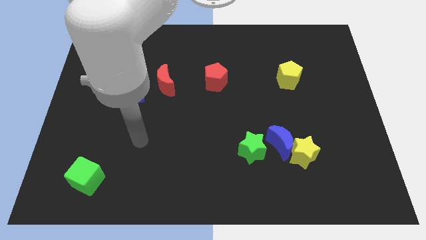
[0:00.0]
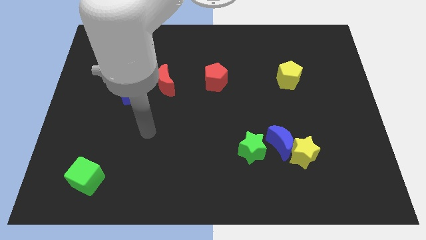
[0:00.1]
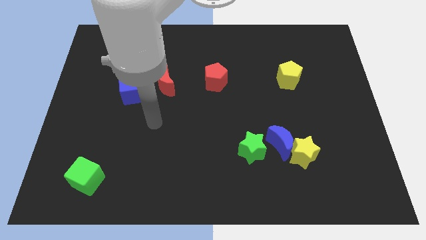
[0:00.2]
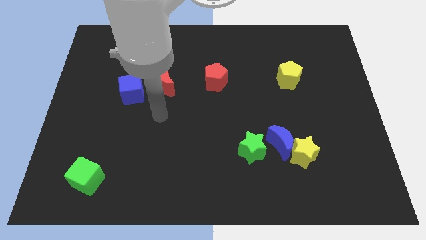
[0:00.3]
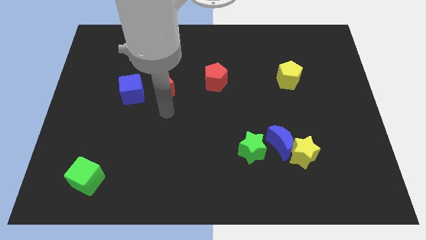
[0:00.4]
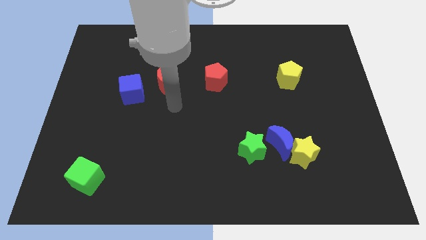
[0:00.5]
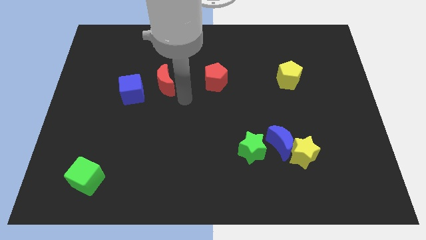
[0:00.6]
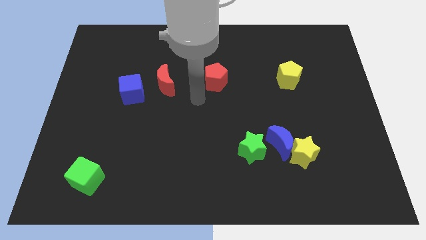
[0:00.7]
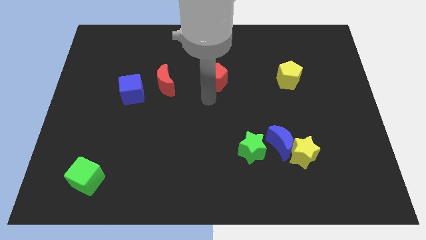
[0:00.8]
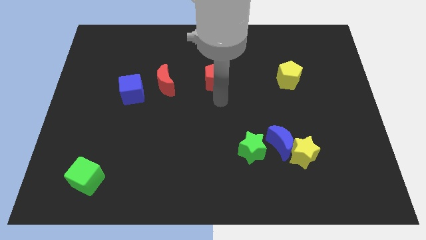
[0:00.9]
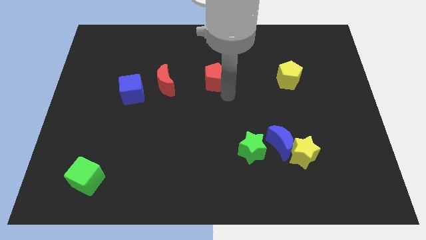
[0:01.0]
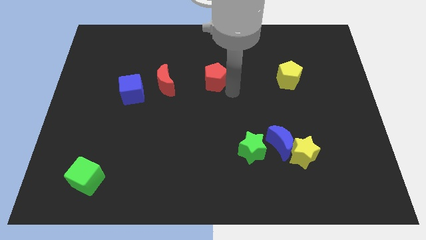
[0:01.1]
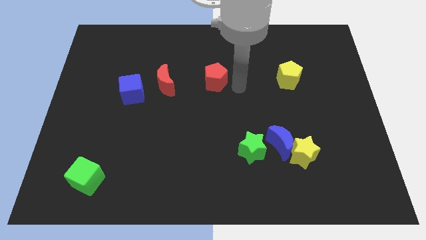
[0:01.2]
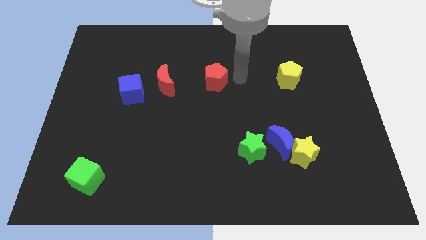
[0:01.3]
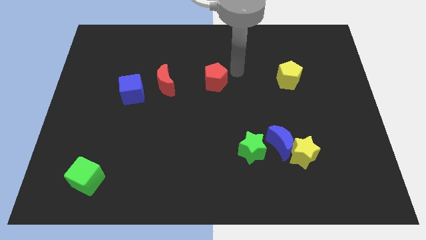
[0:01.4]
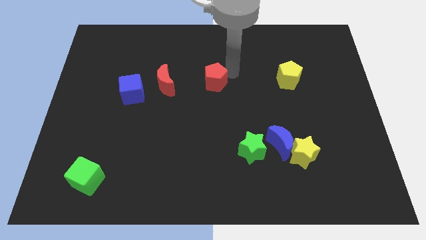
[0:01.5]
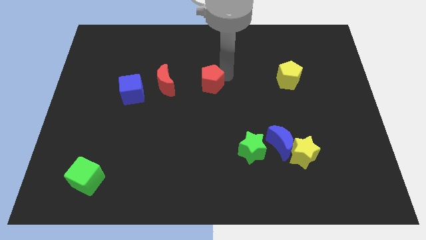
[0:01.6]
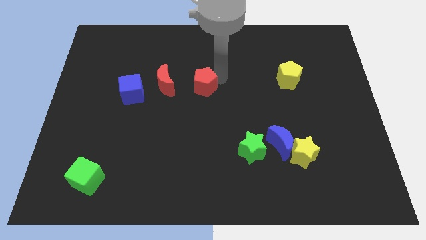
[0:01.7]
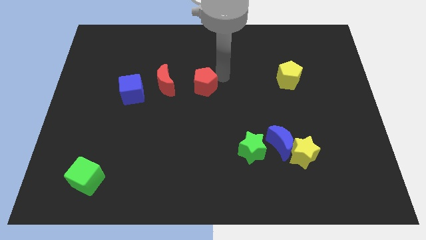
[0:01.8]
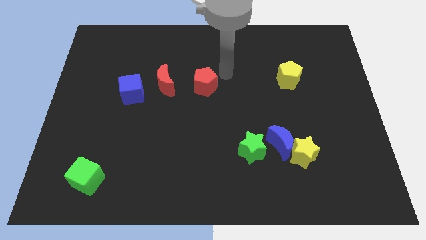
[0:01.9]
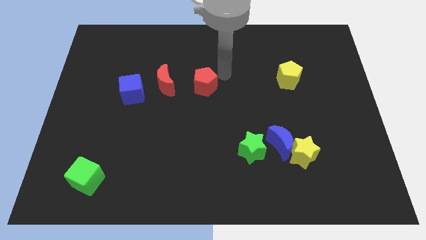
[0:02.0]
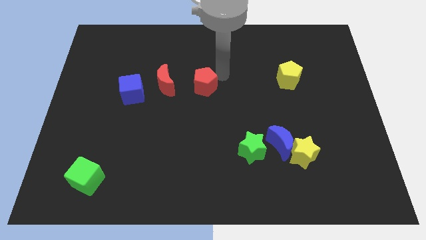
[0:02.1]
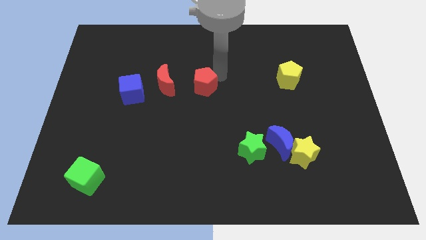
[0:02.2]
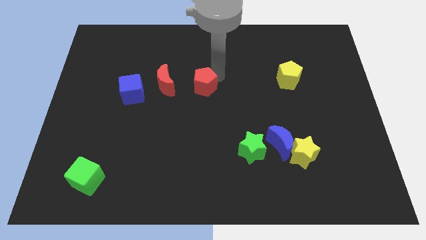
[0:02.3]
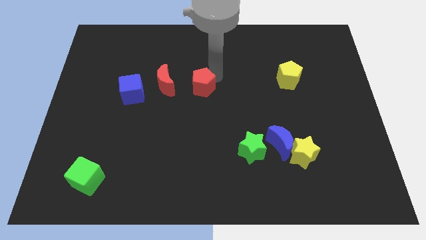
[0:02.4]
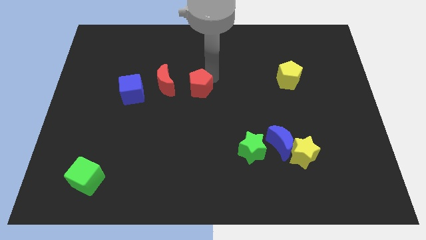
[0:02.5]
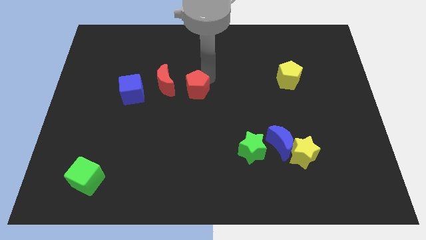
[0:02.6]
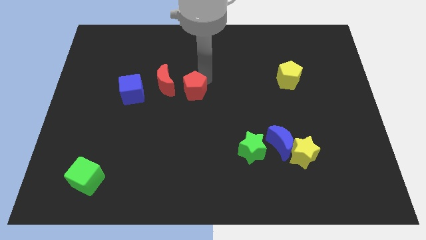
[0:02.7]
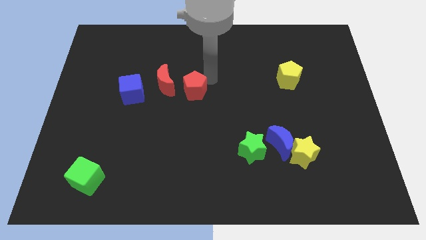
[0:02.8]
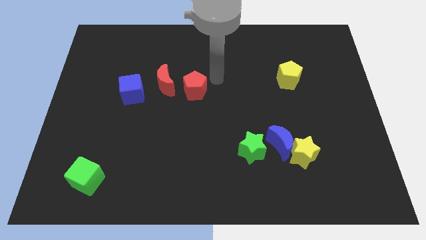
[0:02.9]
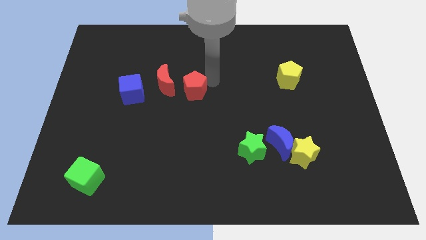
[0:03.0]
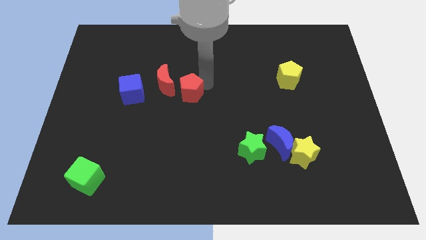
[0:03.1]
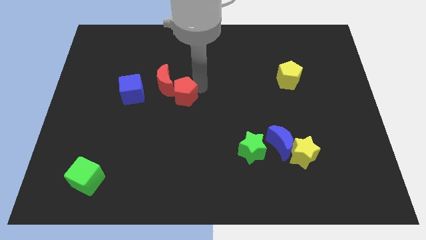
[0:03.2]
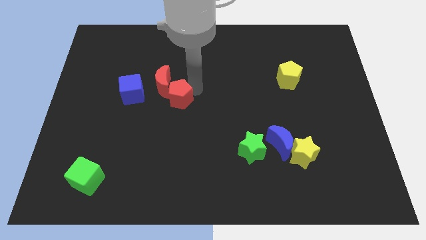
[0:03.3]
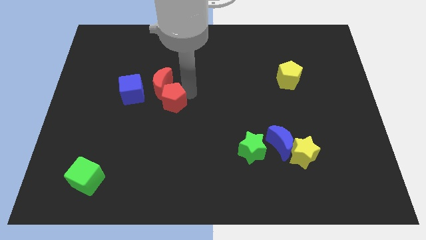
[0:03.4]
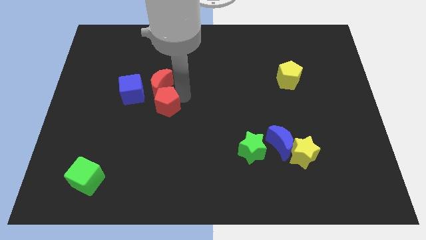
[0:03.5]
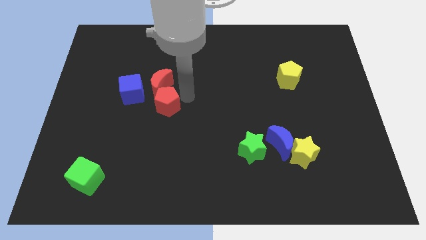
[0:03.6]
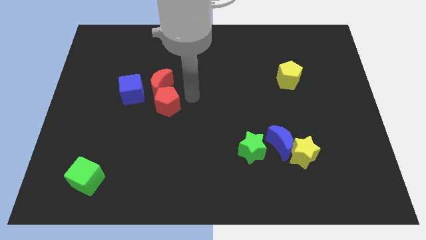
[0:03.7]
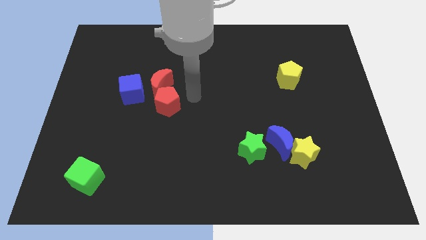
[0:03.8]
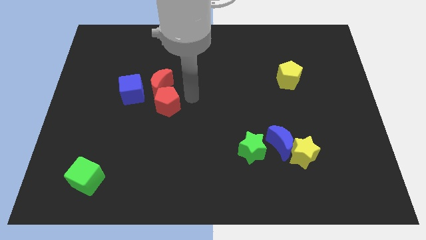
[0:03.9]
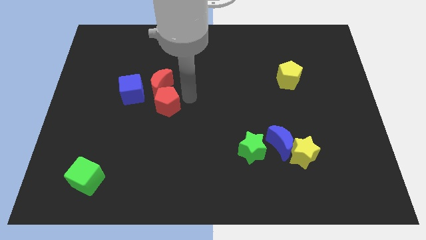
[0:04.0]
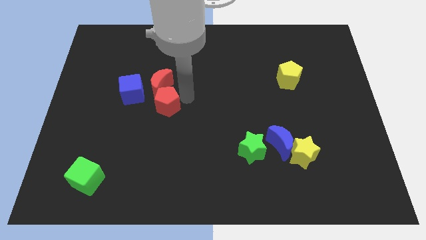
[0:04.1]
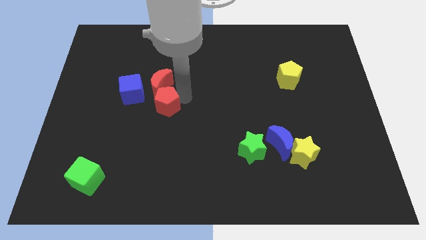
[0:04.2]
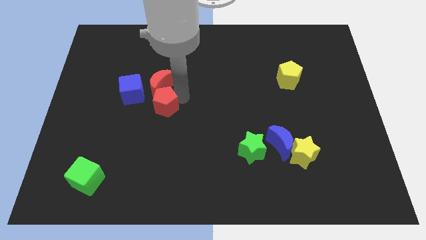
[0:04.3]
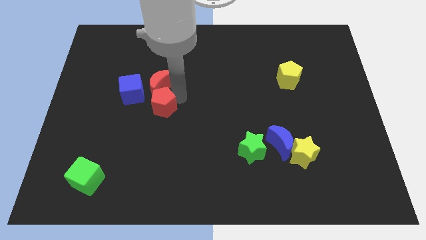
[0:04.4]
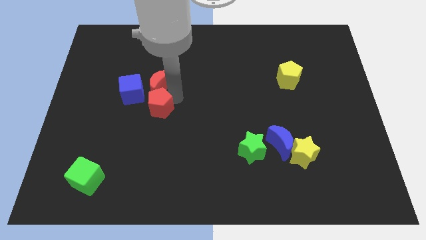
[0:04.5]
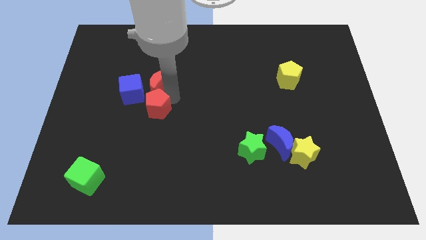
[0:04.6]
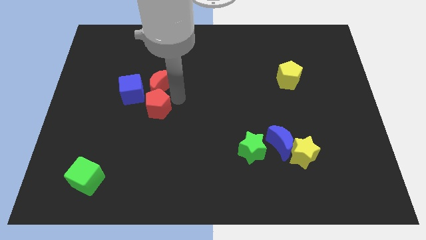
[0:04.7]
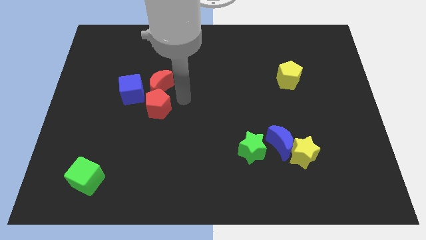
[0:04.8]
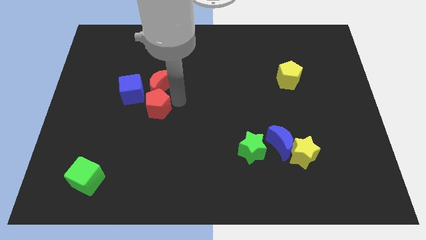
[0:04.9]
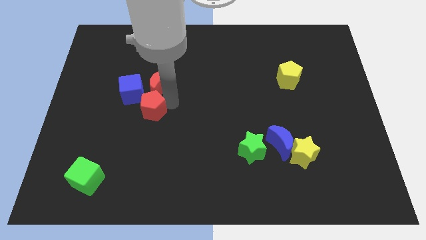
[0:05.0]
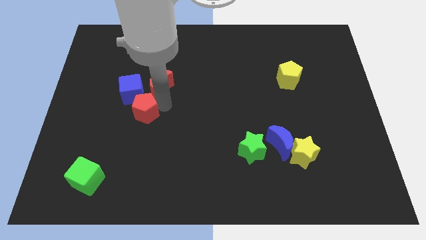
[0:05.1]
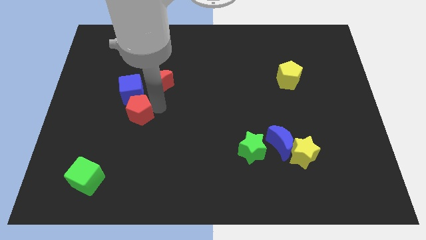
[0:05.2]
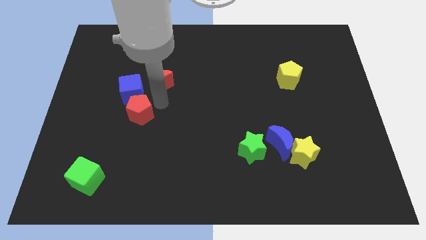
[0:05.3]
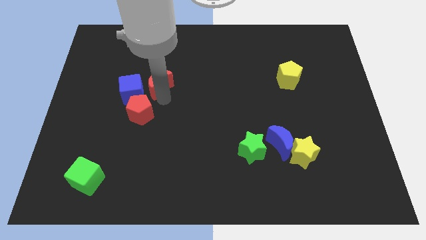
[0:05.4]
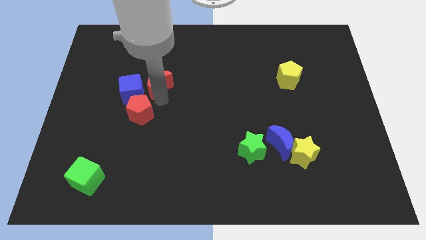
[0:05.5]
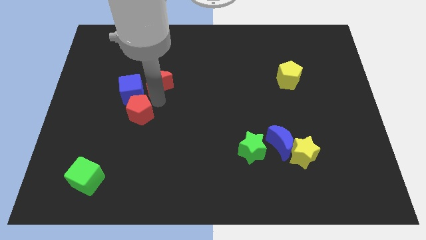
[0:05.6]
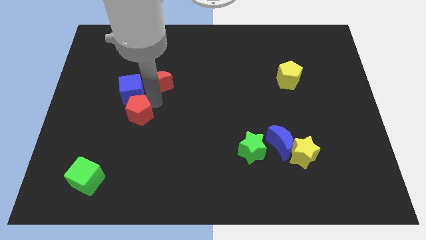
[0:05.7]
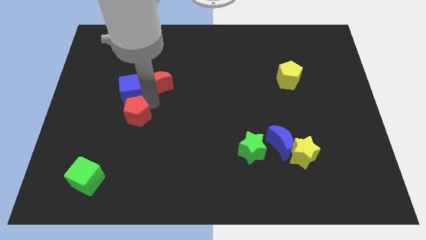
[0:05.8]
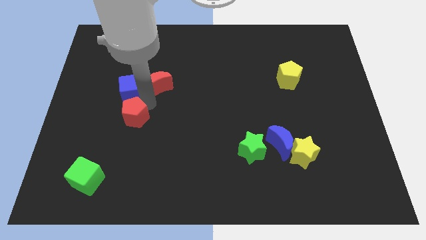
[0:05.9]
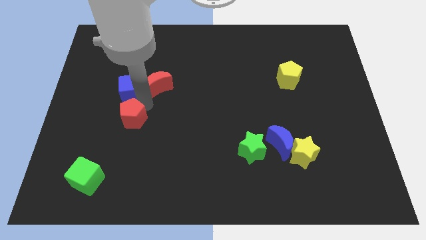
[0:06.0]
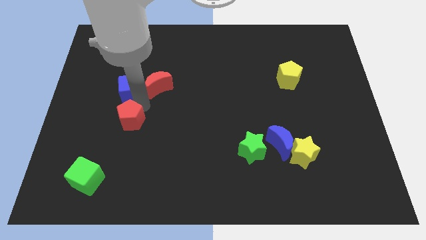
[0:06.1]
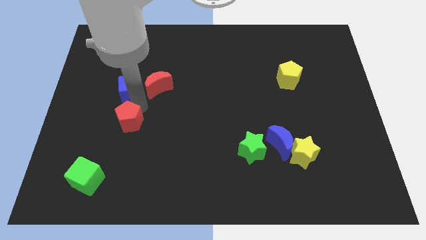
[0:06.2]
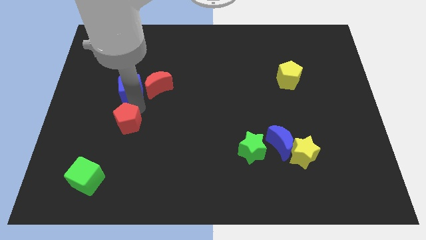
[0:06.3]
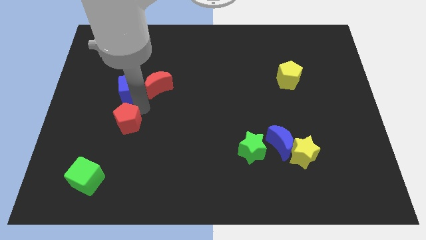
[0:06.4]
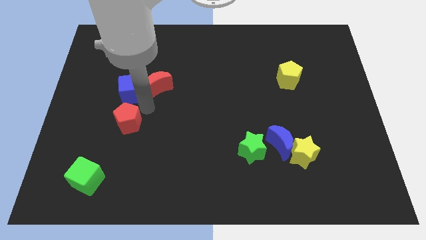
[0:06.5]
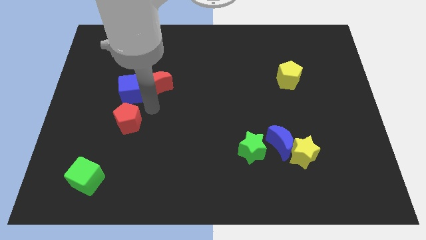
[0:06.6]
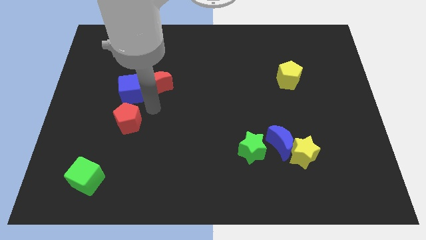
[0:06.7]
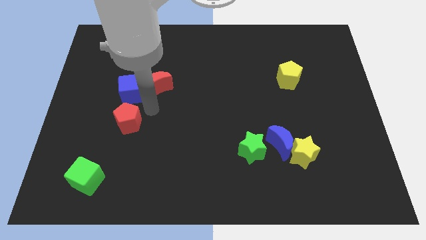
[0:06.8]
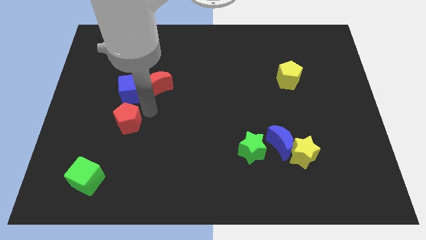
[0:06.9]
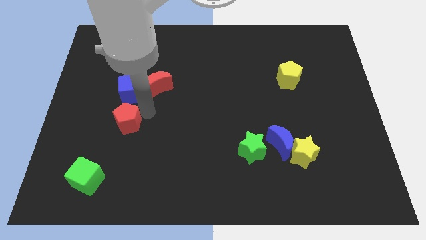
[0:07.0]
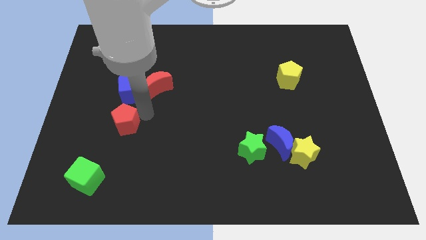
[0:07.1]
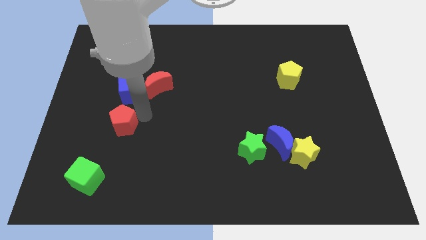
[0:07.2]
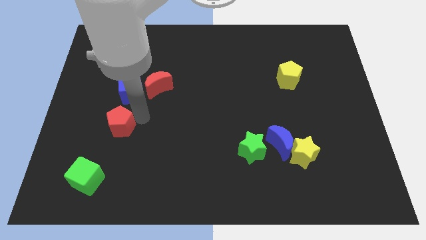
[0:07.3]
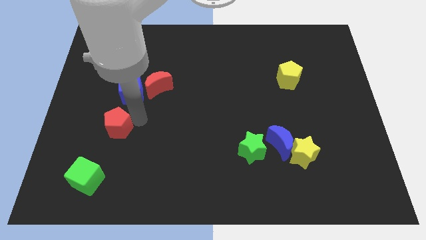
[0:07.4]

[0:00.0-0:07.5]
push the red pentagon to the top of the green cube

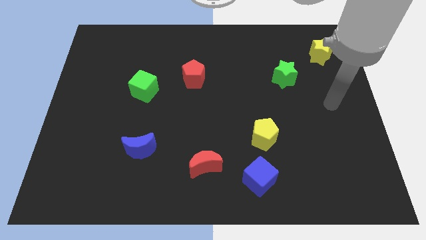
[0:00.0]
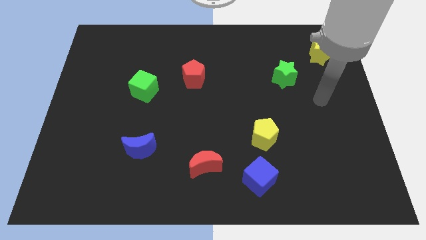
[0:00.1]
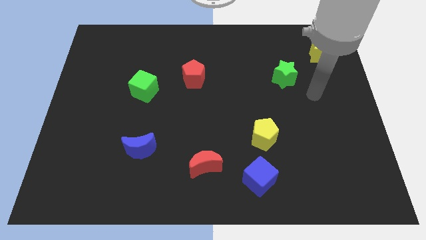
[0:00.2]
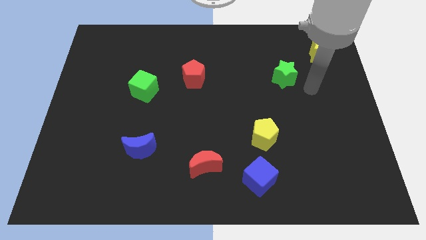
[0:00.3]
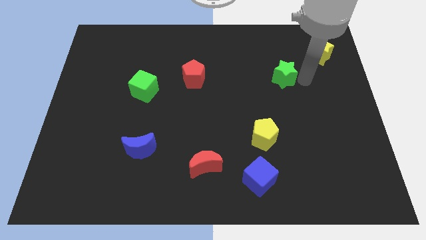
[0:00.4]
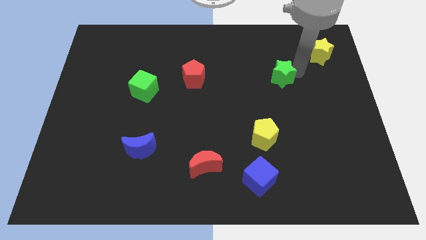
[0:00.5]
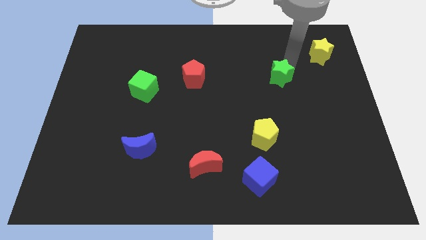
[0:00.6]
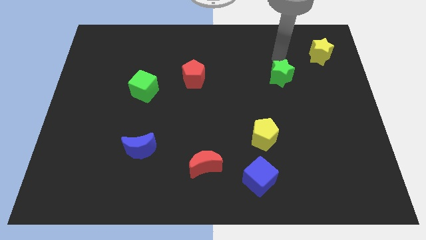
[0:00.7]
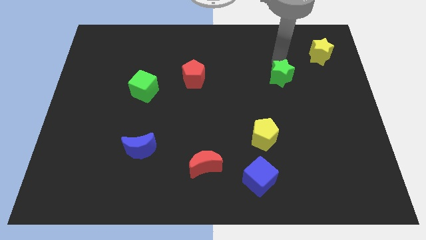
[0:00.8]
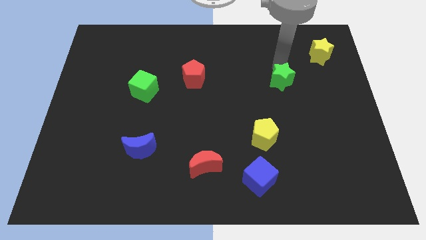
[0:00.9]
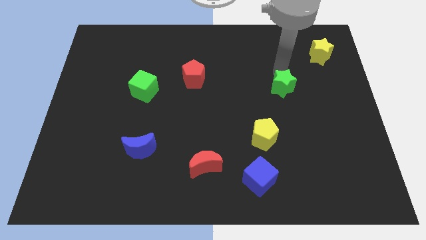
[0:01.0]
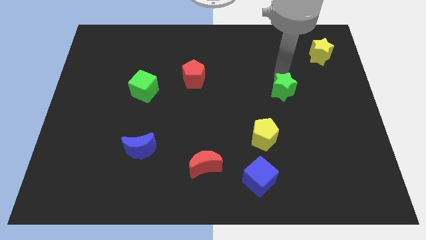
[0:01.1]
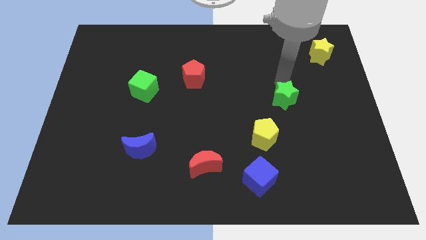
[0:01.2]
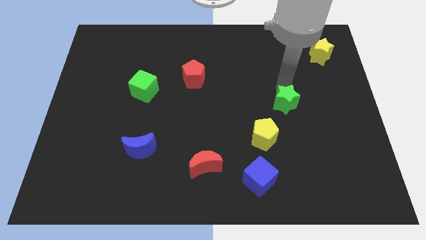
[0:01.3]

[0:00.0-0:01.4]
put the green star to the top right of the yellow pentagon
